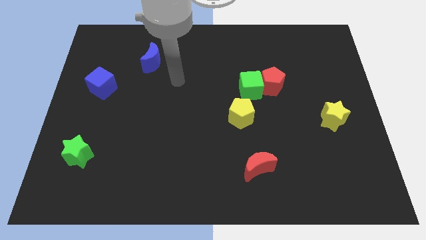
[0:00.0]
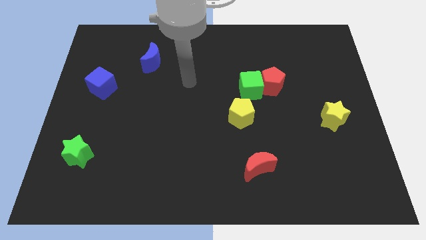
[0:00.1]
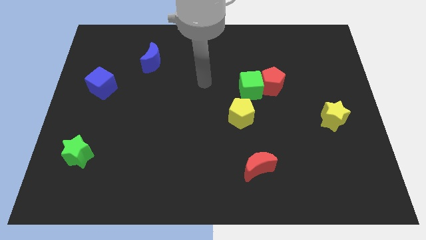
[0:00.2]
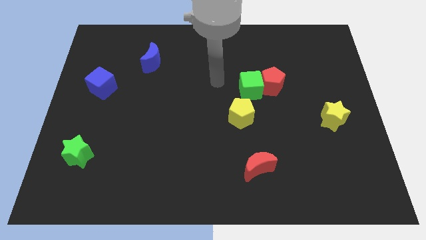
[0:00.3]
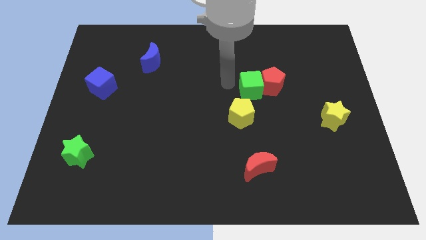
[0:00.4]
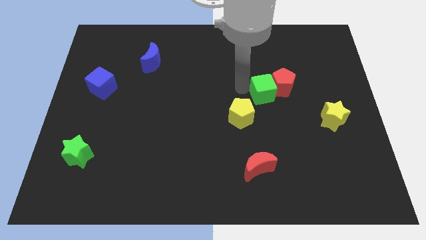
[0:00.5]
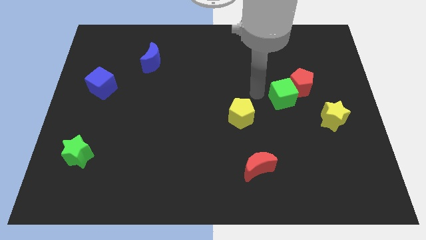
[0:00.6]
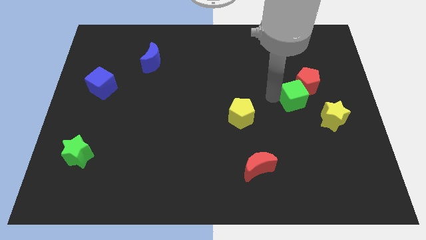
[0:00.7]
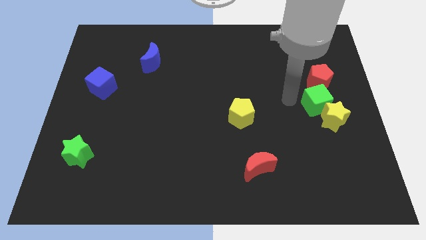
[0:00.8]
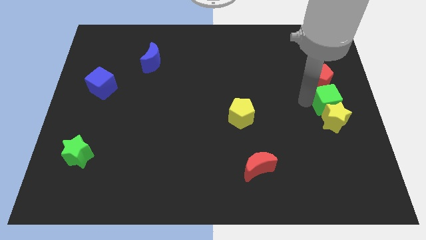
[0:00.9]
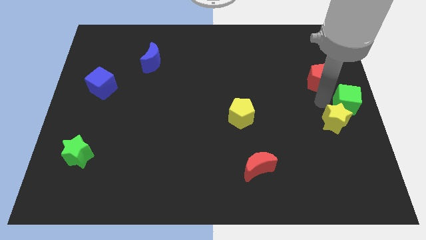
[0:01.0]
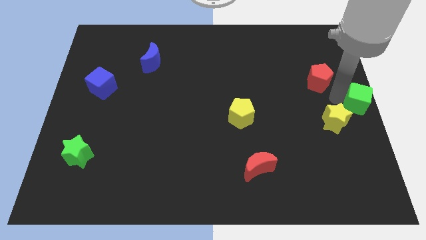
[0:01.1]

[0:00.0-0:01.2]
pull the red pentagon apart from the green cube

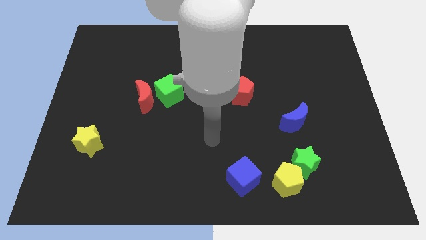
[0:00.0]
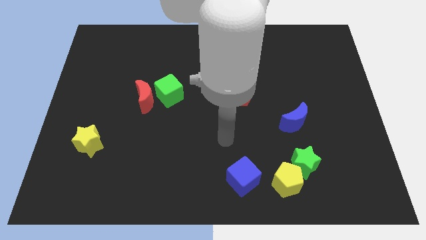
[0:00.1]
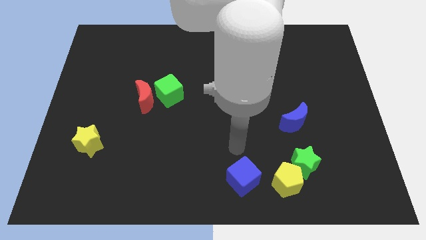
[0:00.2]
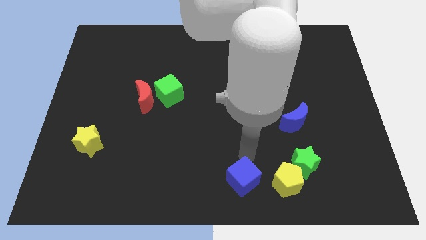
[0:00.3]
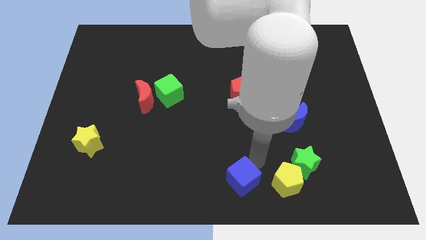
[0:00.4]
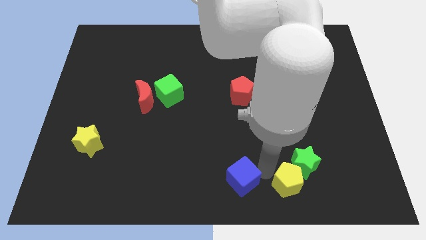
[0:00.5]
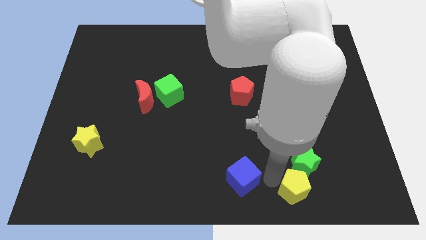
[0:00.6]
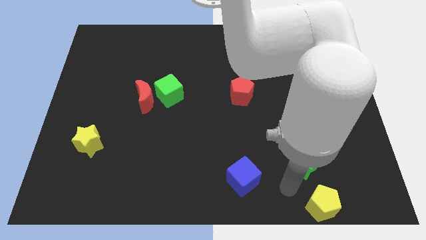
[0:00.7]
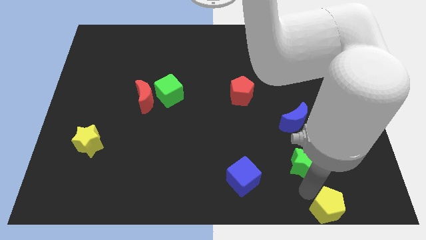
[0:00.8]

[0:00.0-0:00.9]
separate the green star from the yellow pentagon

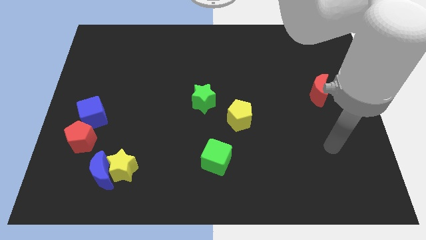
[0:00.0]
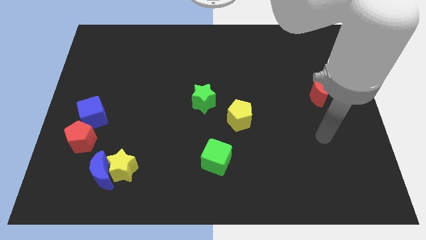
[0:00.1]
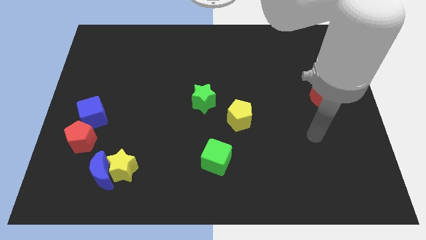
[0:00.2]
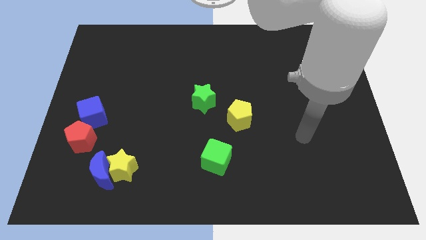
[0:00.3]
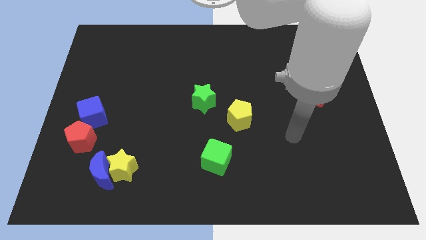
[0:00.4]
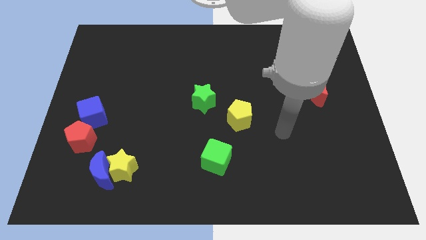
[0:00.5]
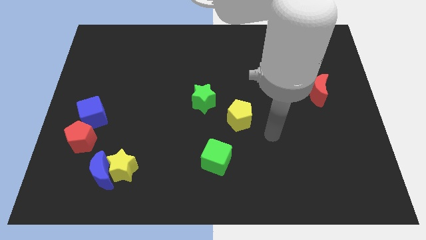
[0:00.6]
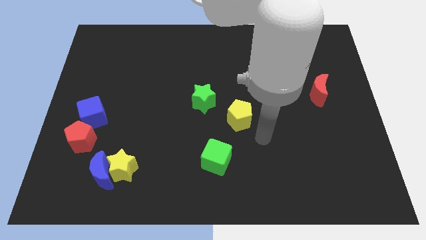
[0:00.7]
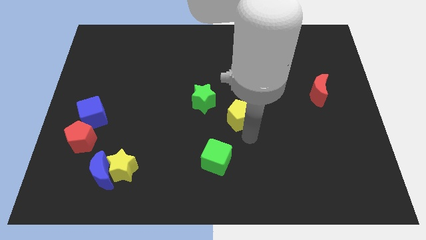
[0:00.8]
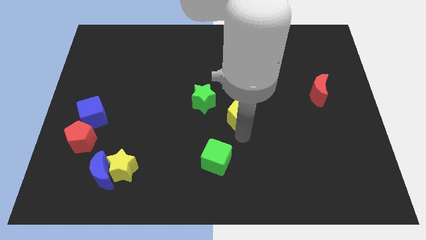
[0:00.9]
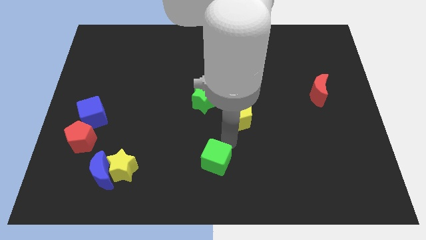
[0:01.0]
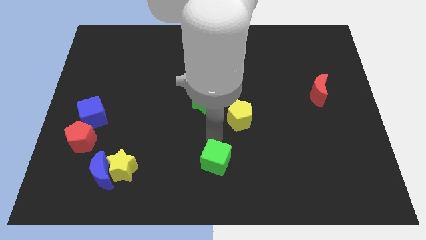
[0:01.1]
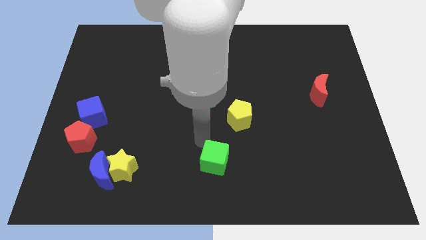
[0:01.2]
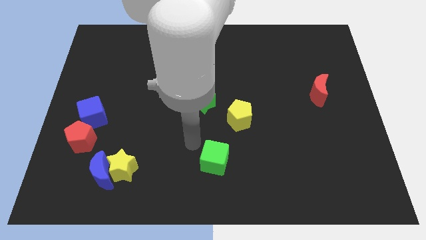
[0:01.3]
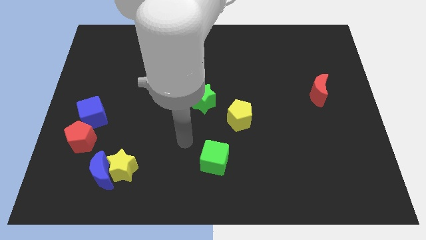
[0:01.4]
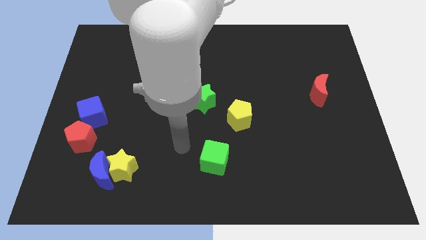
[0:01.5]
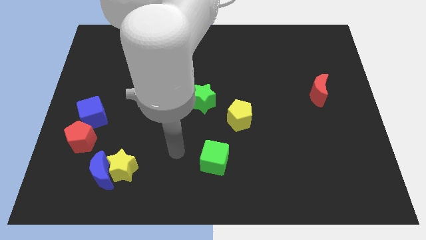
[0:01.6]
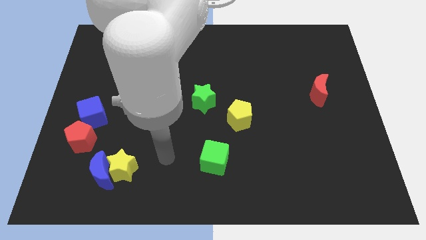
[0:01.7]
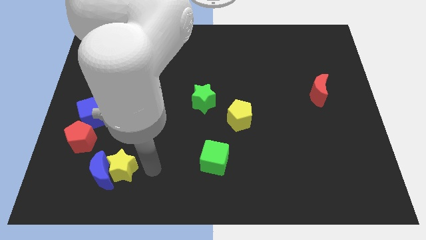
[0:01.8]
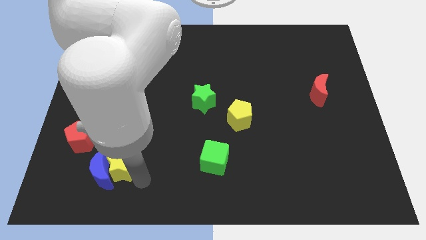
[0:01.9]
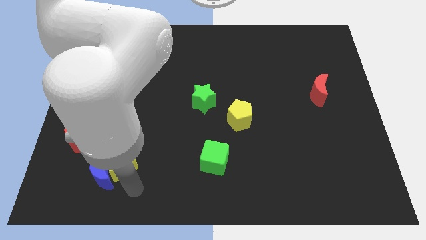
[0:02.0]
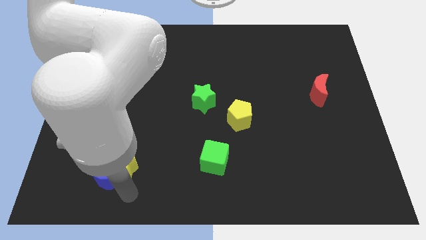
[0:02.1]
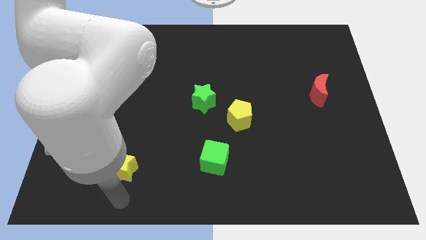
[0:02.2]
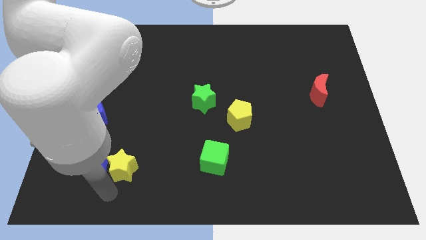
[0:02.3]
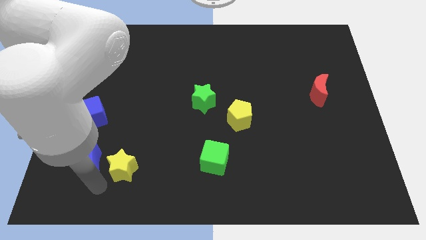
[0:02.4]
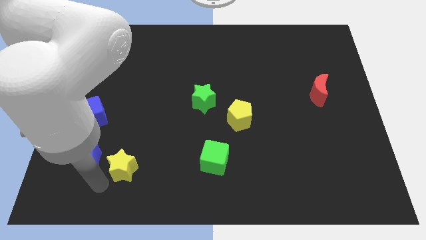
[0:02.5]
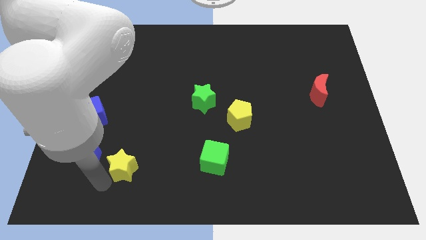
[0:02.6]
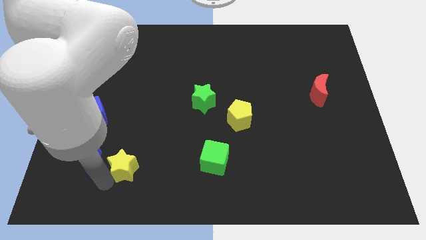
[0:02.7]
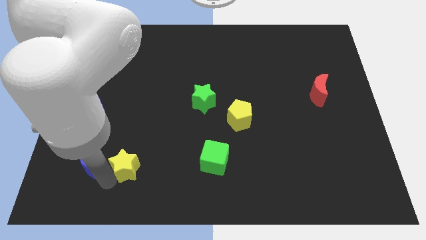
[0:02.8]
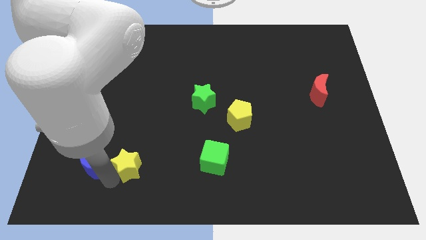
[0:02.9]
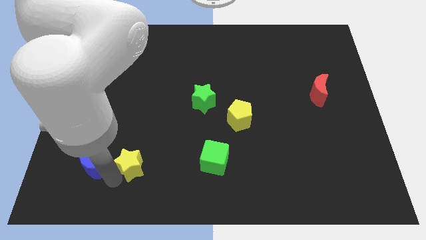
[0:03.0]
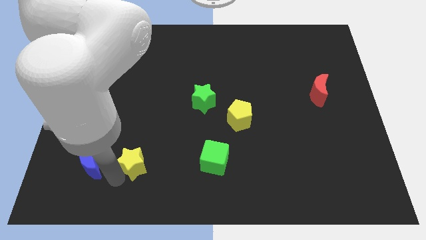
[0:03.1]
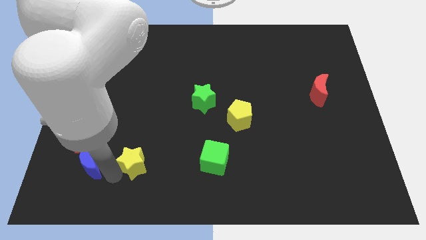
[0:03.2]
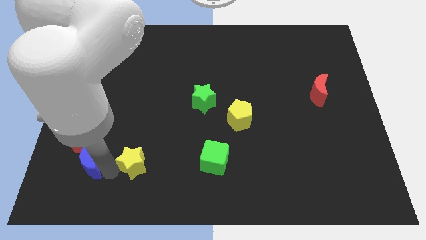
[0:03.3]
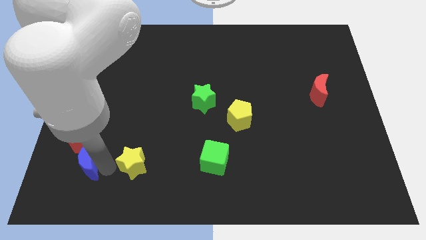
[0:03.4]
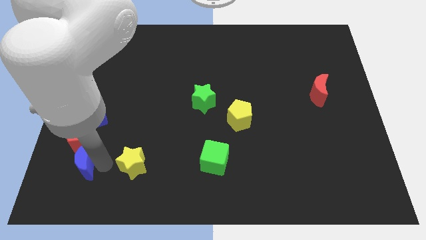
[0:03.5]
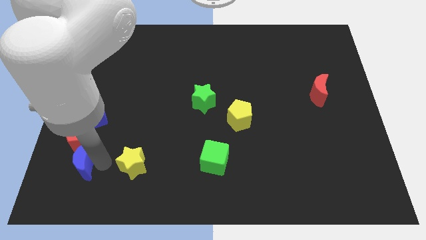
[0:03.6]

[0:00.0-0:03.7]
move the yellow star away from the blue moon

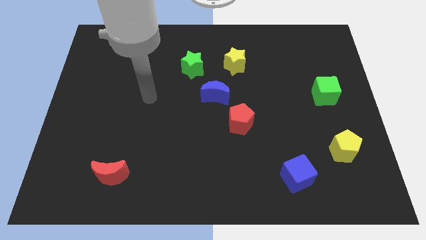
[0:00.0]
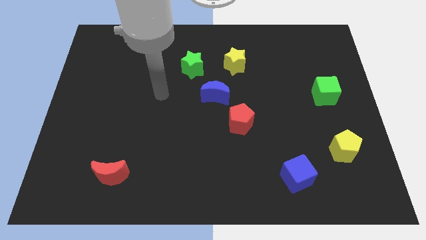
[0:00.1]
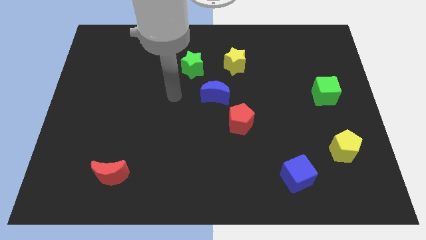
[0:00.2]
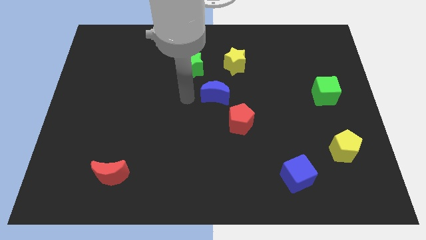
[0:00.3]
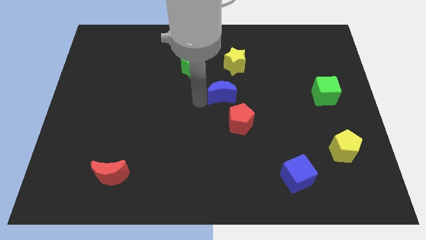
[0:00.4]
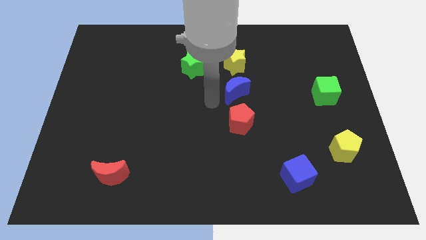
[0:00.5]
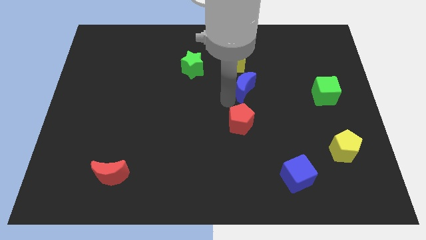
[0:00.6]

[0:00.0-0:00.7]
pull the red pentagon apart from the blue moon

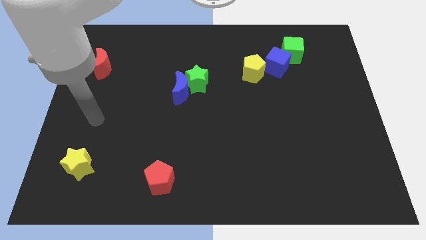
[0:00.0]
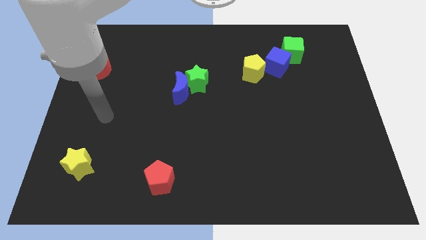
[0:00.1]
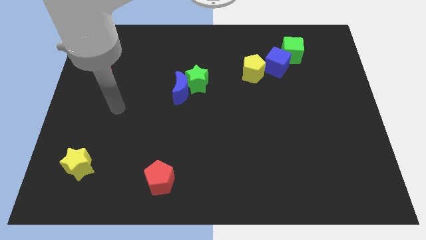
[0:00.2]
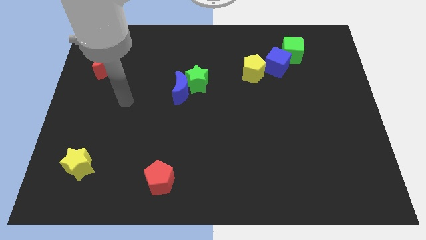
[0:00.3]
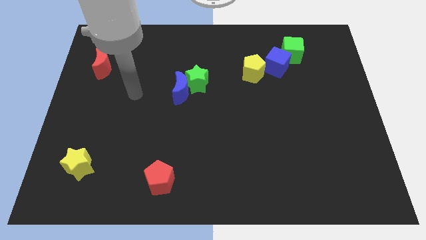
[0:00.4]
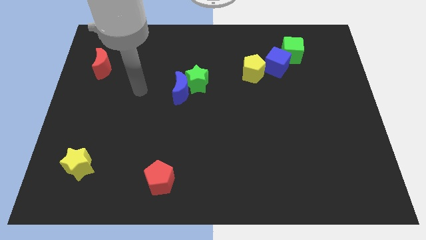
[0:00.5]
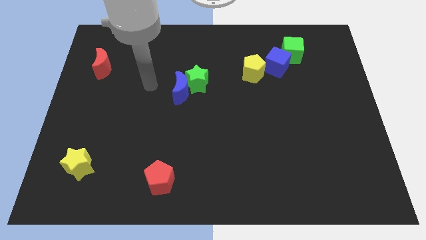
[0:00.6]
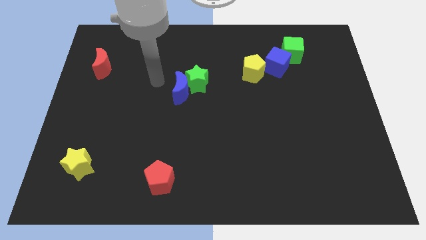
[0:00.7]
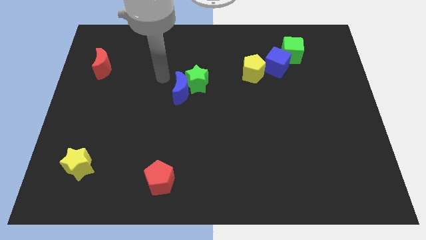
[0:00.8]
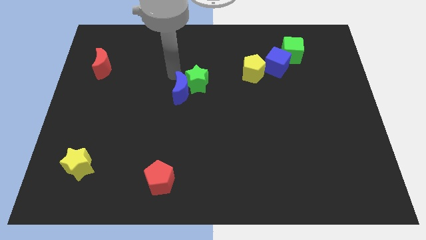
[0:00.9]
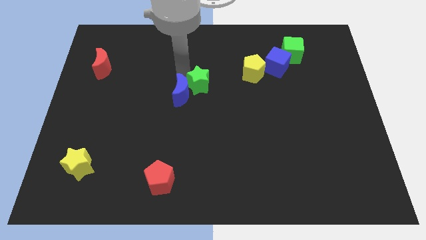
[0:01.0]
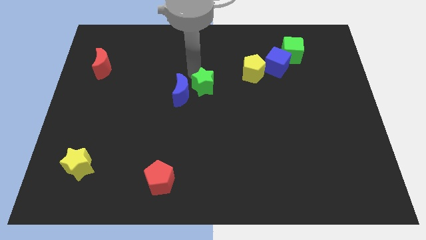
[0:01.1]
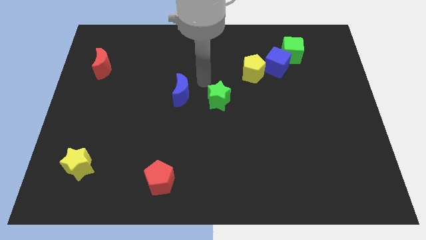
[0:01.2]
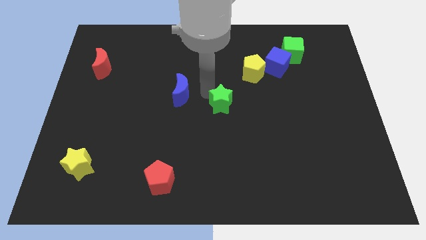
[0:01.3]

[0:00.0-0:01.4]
pull the blue moon apart from the green star

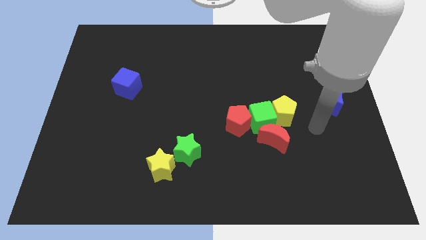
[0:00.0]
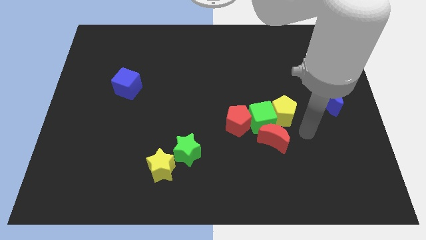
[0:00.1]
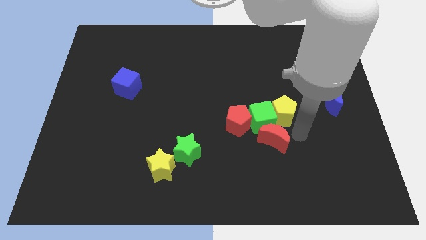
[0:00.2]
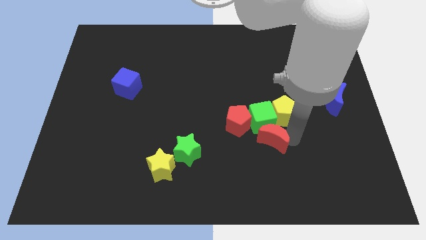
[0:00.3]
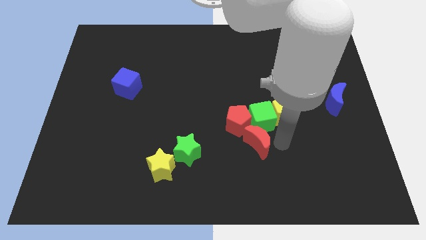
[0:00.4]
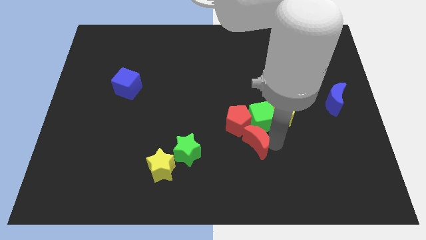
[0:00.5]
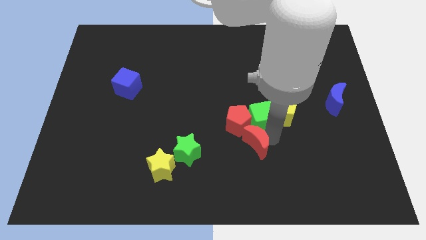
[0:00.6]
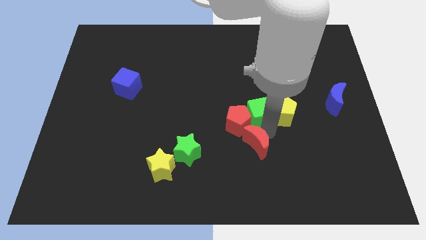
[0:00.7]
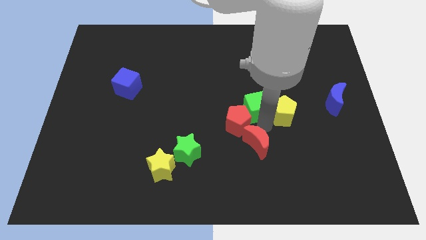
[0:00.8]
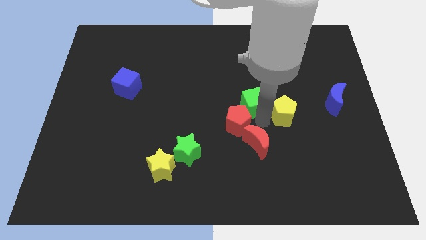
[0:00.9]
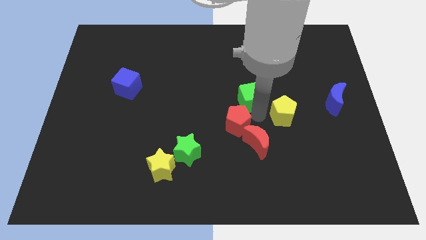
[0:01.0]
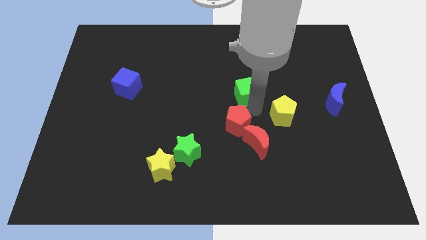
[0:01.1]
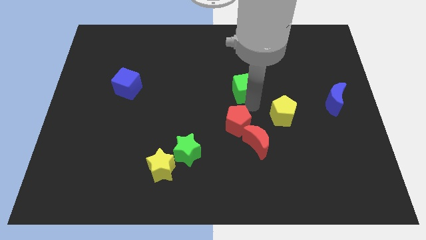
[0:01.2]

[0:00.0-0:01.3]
move the green cube away from the group of blocks

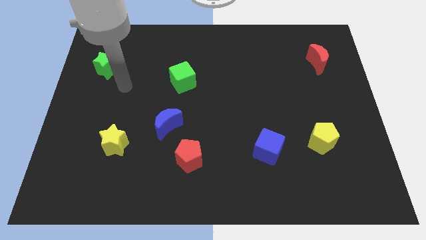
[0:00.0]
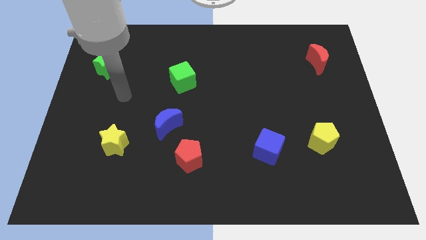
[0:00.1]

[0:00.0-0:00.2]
separate the red pentagon from the blue moon
